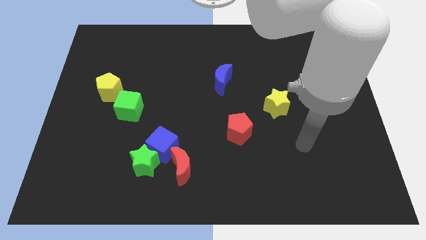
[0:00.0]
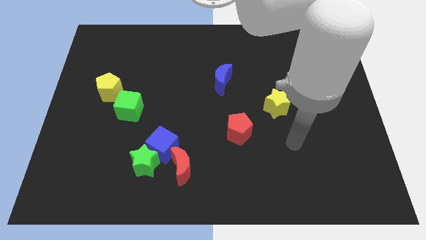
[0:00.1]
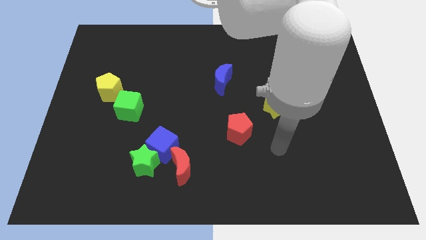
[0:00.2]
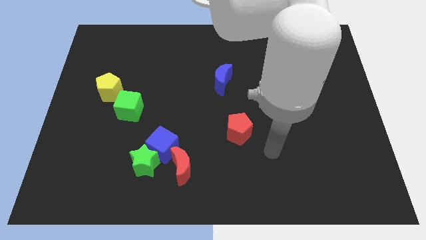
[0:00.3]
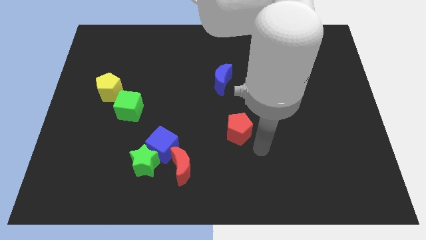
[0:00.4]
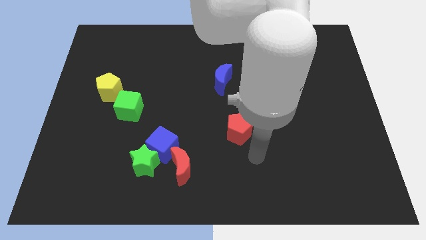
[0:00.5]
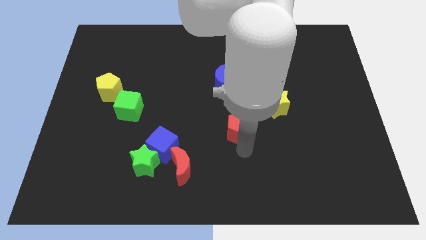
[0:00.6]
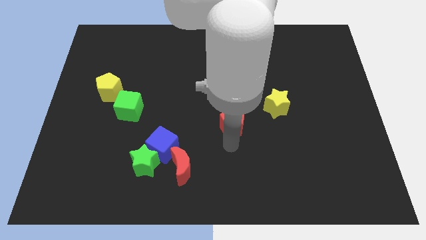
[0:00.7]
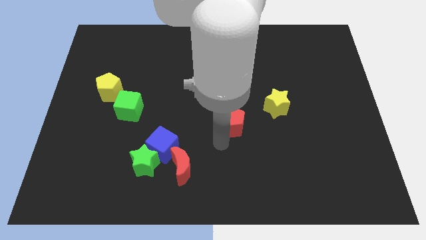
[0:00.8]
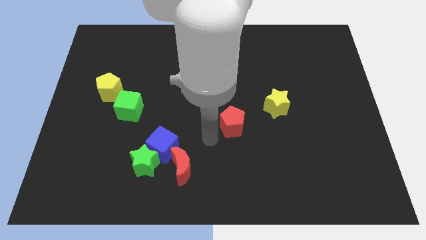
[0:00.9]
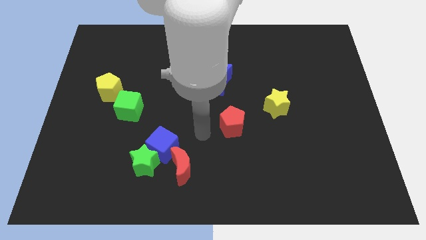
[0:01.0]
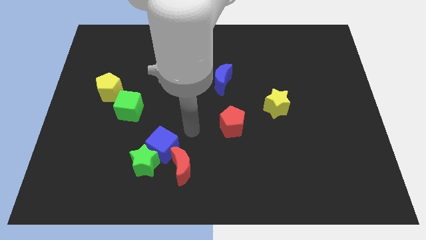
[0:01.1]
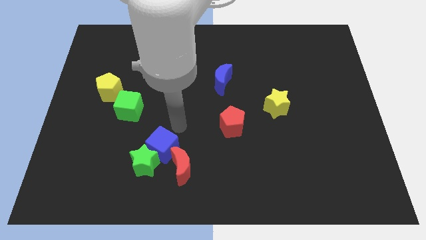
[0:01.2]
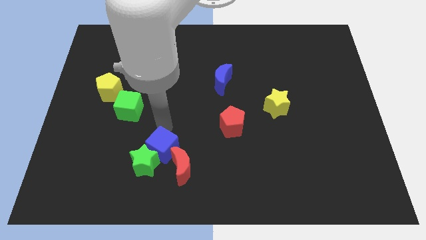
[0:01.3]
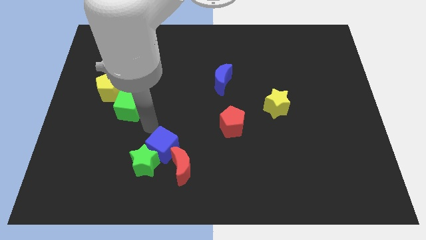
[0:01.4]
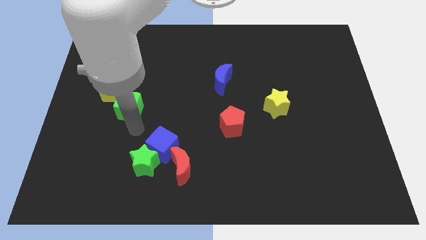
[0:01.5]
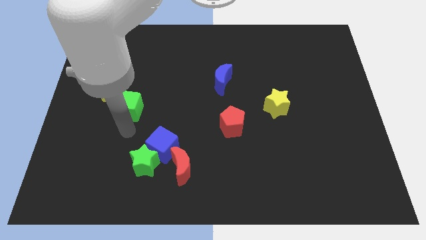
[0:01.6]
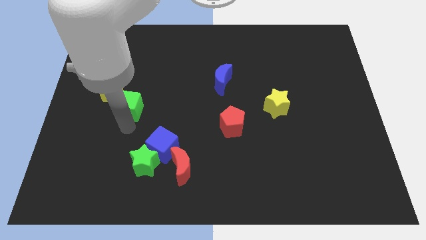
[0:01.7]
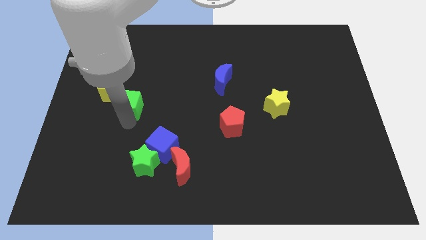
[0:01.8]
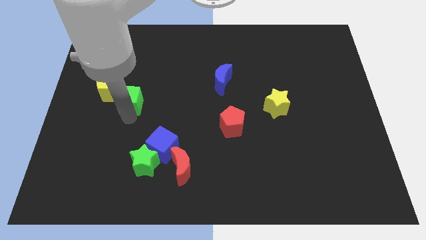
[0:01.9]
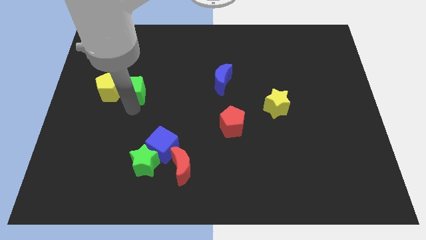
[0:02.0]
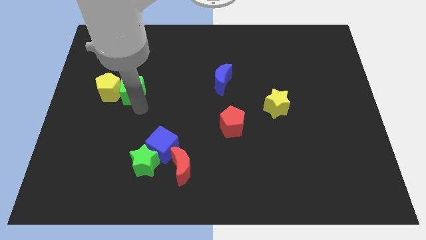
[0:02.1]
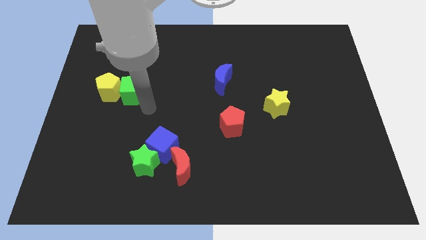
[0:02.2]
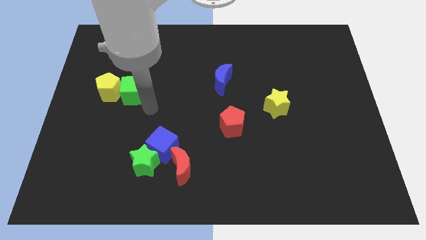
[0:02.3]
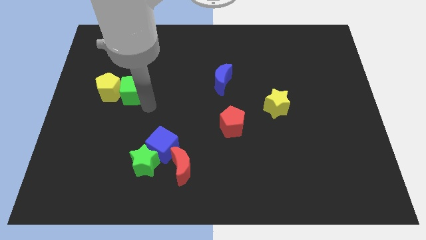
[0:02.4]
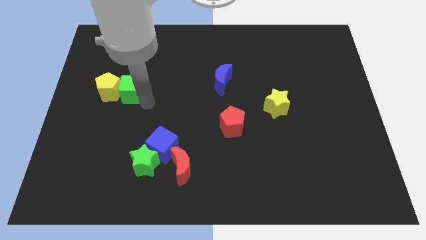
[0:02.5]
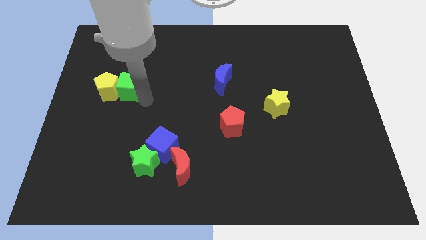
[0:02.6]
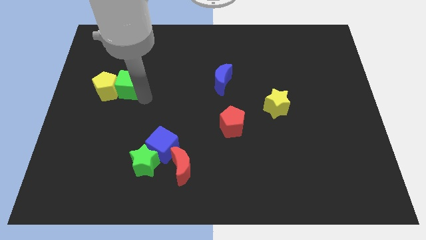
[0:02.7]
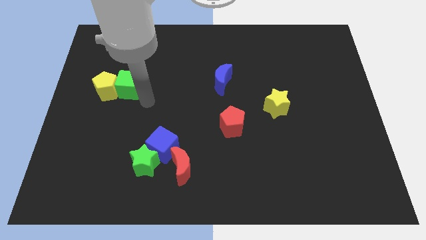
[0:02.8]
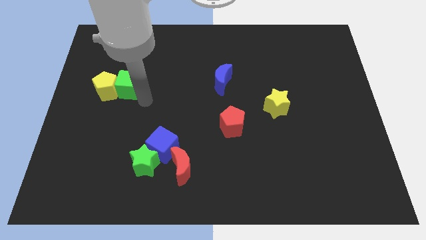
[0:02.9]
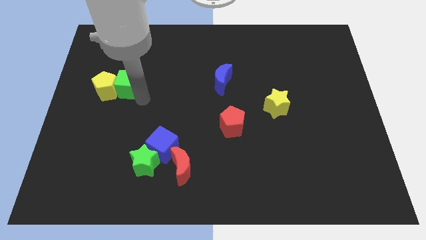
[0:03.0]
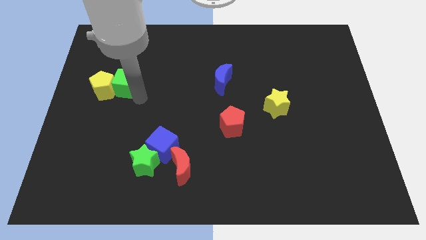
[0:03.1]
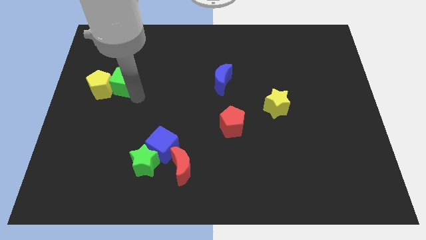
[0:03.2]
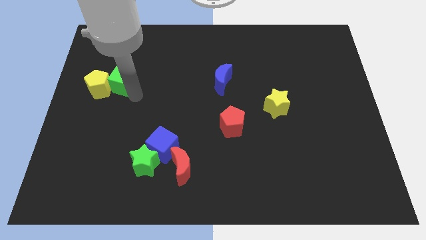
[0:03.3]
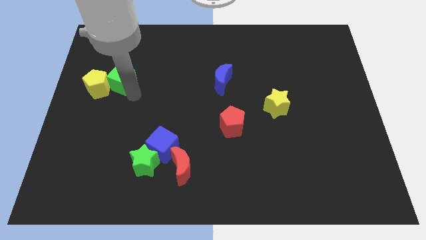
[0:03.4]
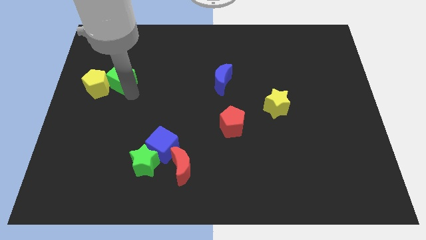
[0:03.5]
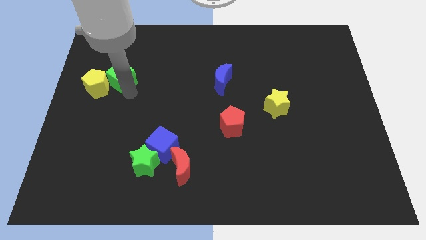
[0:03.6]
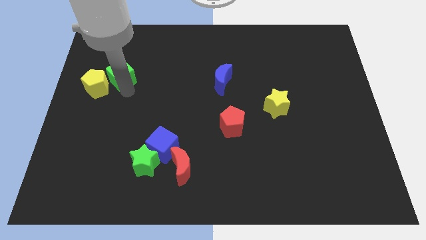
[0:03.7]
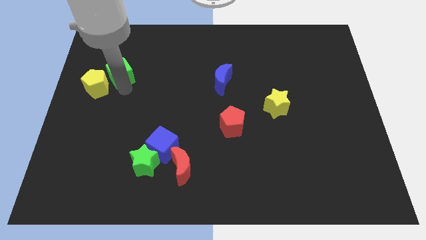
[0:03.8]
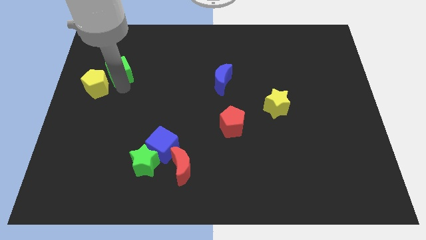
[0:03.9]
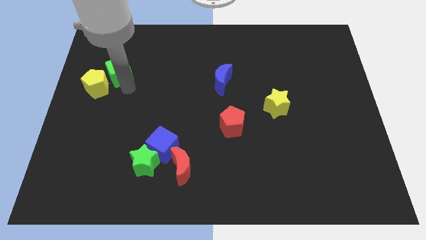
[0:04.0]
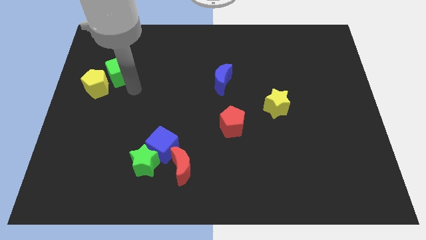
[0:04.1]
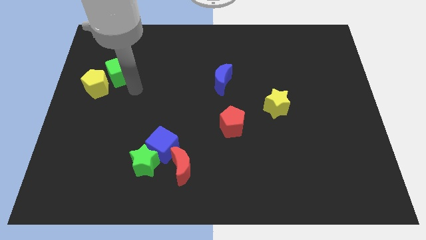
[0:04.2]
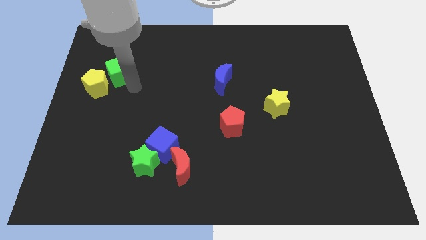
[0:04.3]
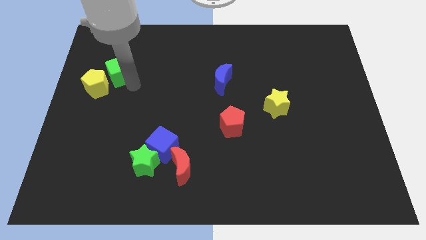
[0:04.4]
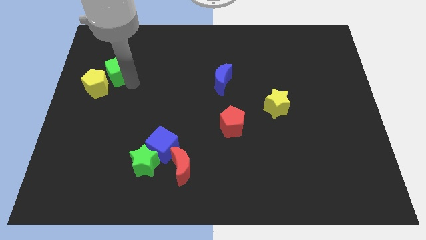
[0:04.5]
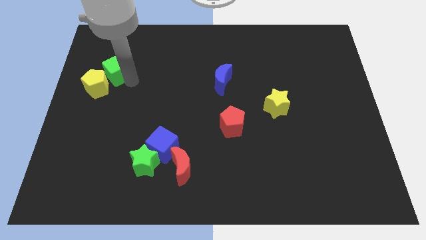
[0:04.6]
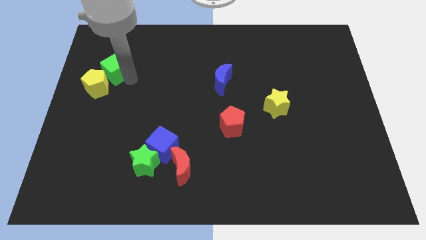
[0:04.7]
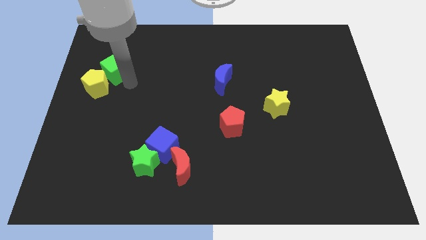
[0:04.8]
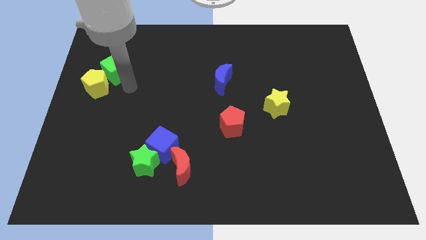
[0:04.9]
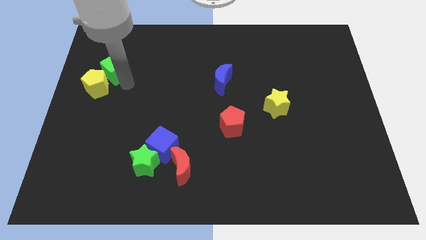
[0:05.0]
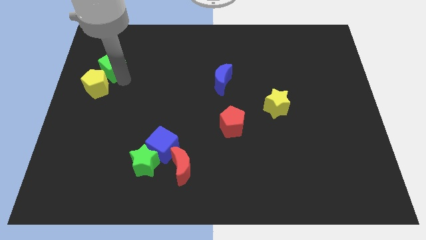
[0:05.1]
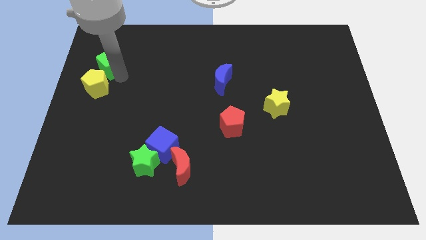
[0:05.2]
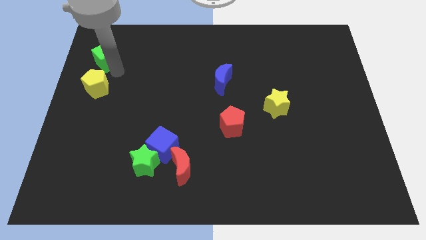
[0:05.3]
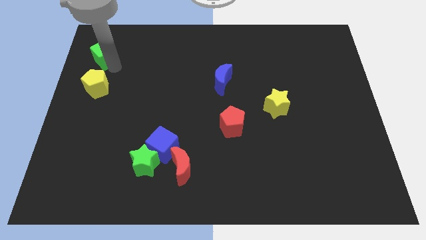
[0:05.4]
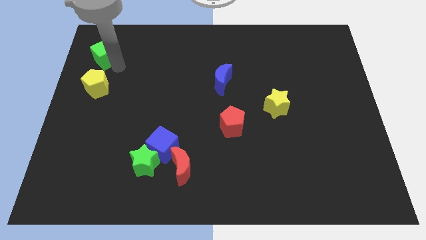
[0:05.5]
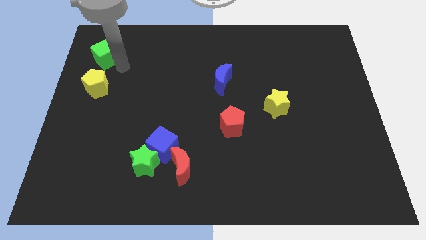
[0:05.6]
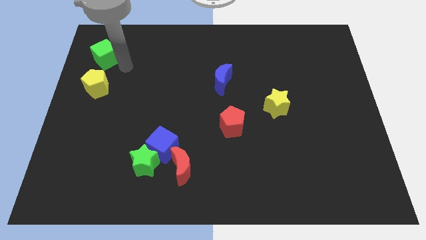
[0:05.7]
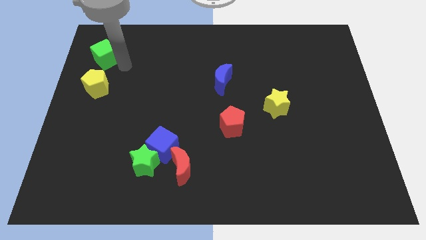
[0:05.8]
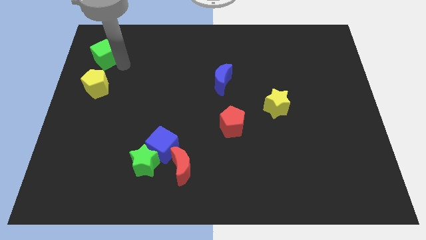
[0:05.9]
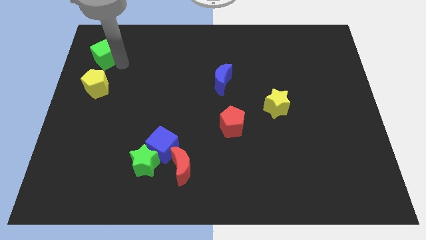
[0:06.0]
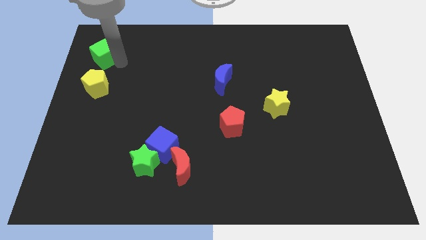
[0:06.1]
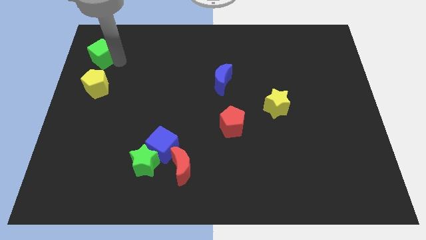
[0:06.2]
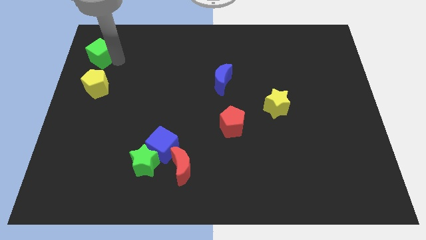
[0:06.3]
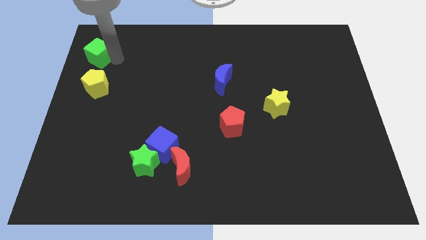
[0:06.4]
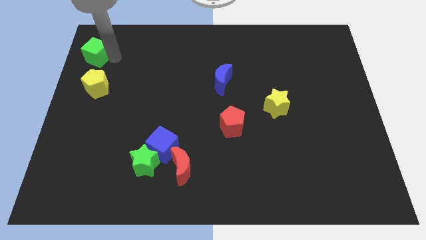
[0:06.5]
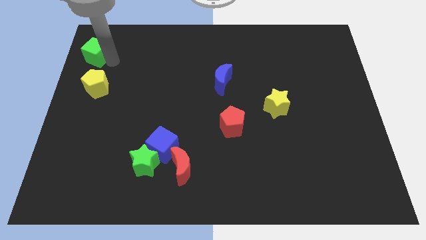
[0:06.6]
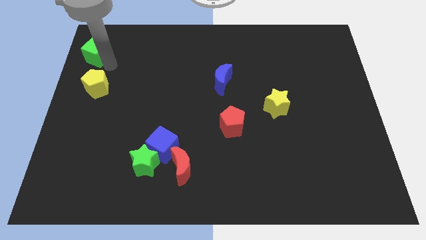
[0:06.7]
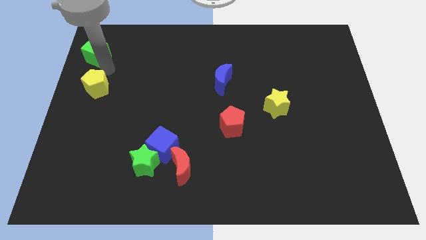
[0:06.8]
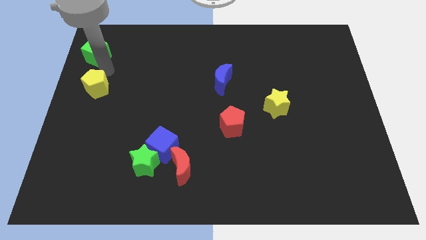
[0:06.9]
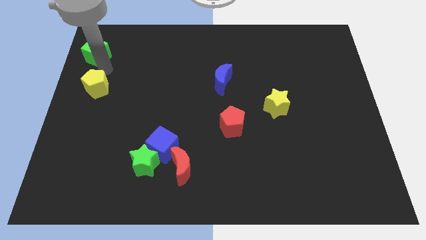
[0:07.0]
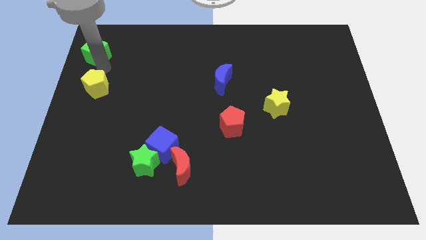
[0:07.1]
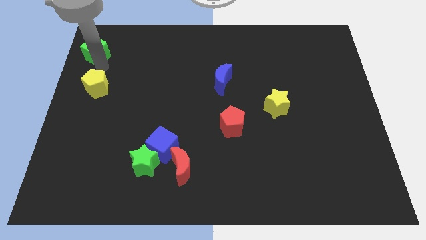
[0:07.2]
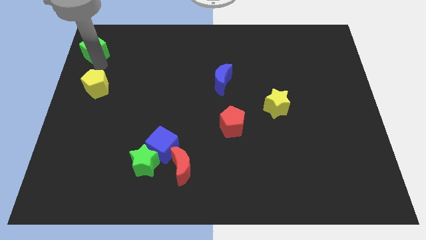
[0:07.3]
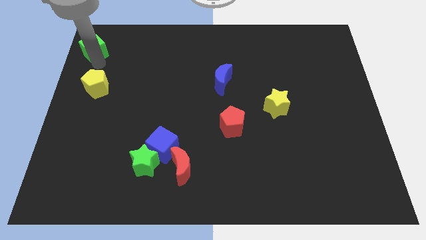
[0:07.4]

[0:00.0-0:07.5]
push the green cube to the upper left corner
